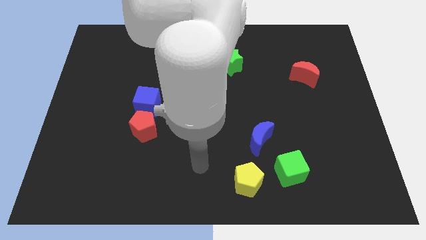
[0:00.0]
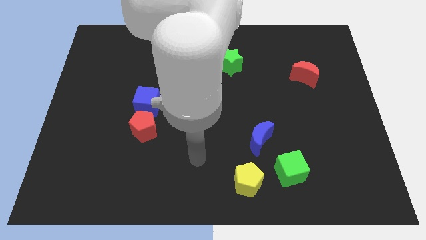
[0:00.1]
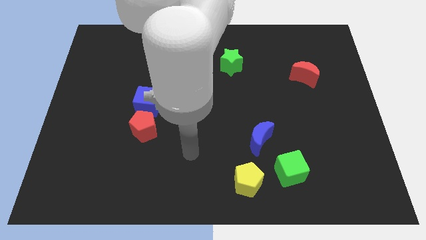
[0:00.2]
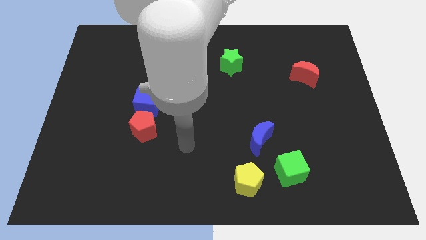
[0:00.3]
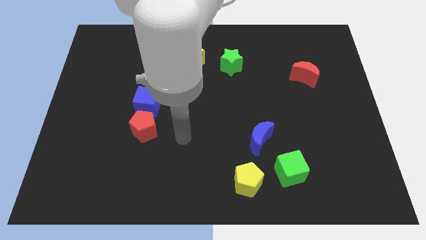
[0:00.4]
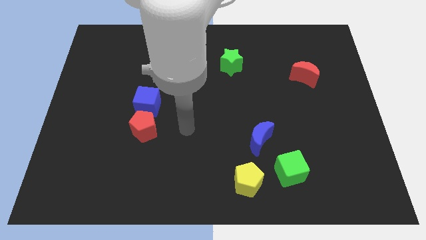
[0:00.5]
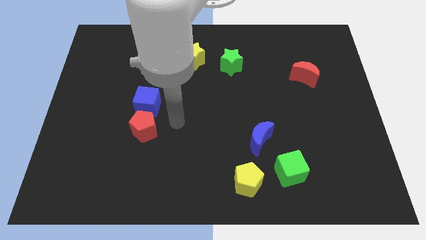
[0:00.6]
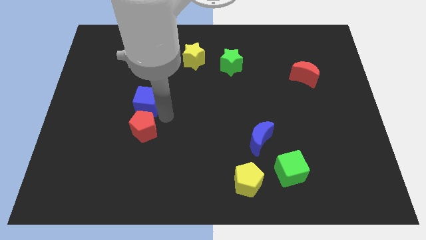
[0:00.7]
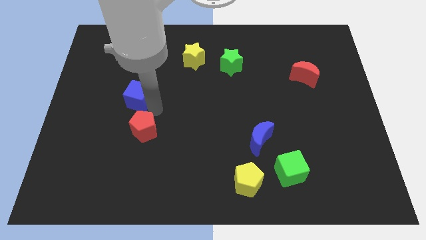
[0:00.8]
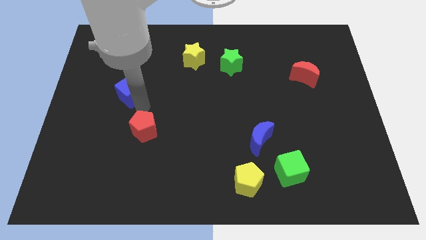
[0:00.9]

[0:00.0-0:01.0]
separate the red pentagon from the blue cube

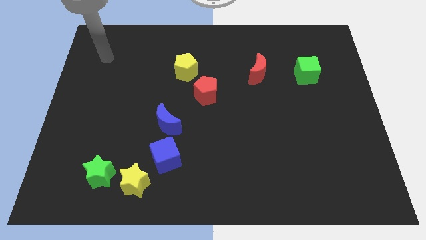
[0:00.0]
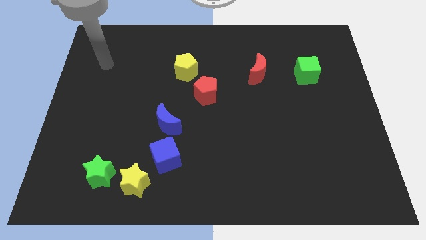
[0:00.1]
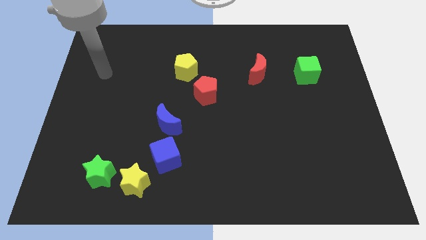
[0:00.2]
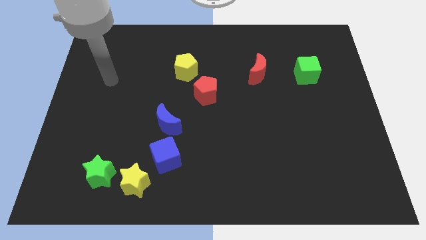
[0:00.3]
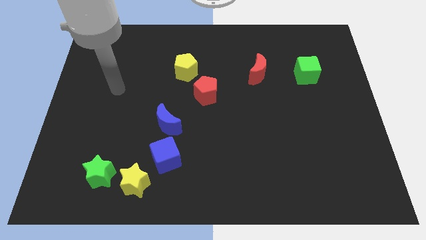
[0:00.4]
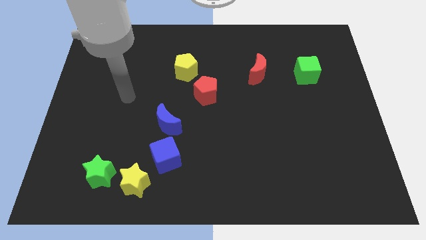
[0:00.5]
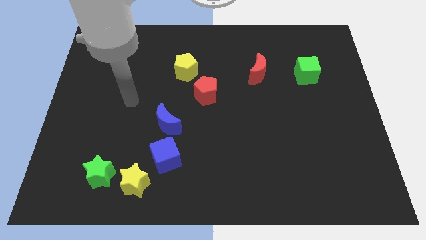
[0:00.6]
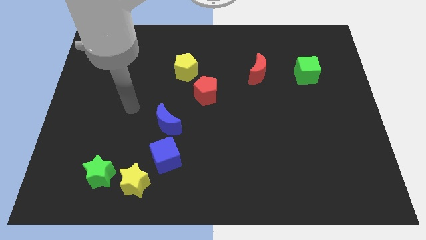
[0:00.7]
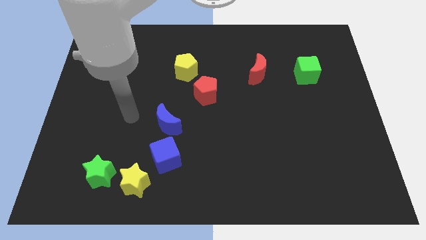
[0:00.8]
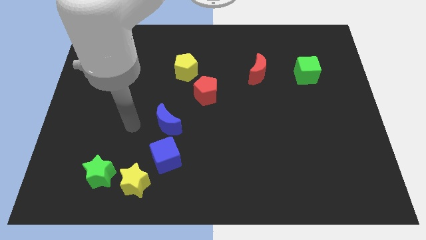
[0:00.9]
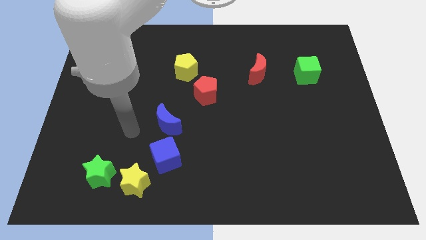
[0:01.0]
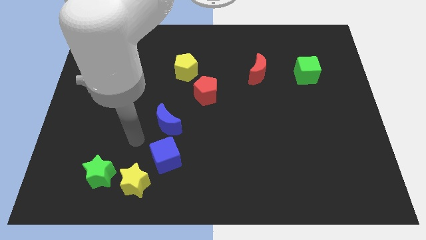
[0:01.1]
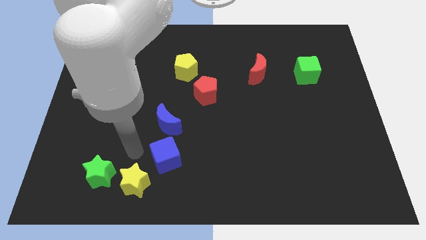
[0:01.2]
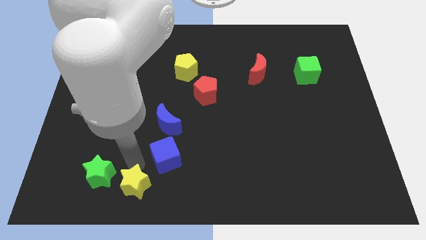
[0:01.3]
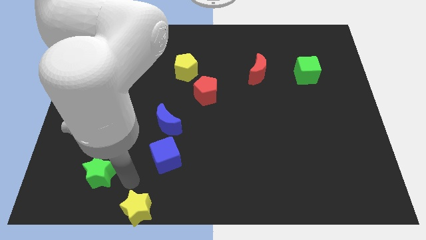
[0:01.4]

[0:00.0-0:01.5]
separate the green star from the yellow star

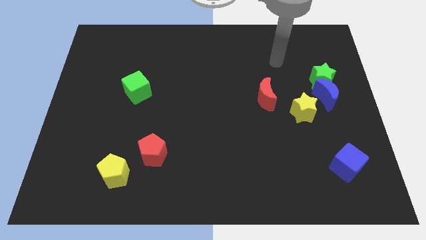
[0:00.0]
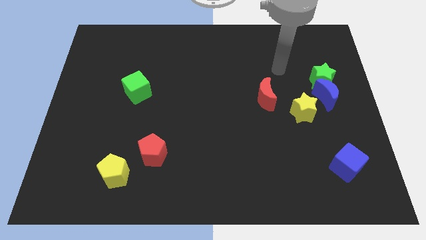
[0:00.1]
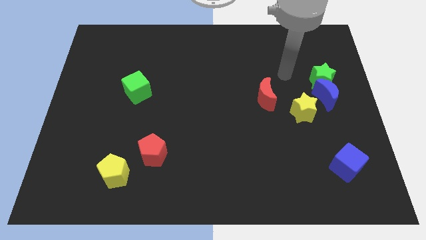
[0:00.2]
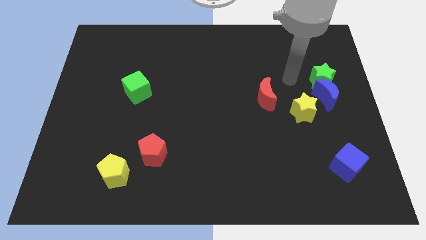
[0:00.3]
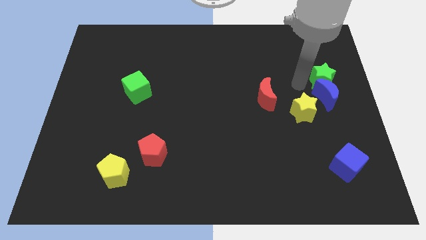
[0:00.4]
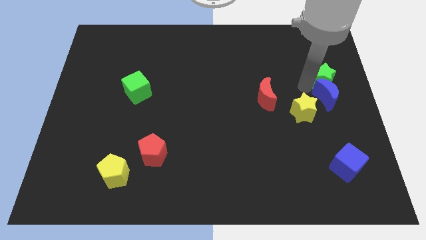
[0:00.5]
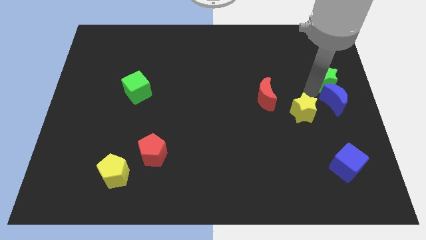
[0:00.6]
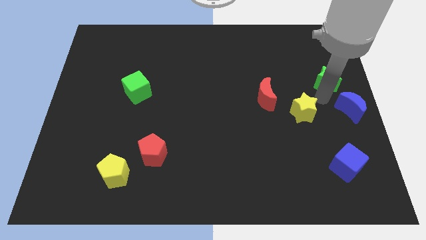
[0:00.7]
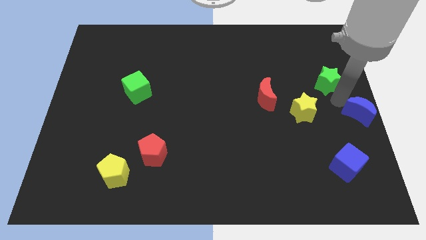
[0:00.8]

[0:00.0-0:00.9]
separate the green star from the blue moon

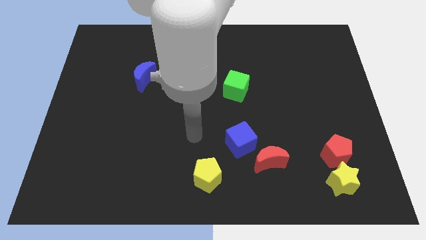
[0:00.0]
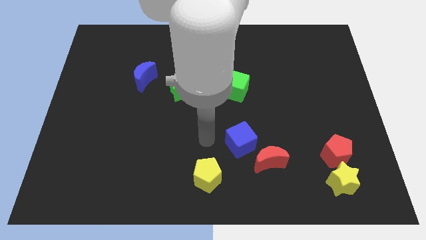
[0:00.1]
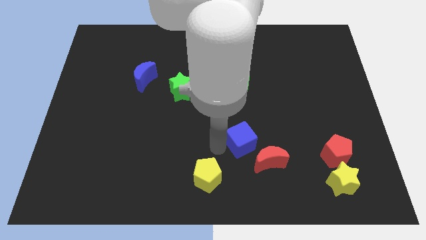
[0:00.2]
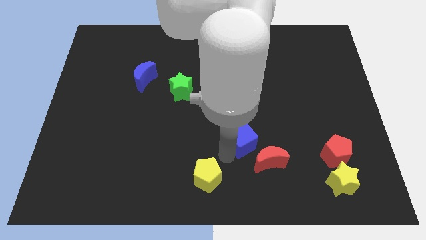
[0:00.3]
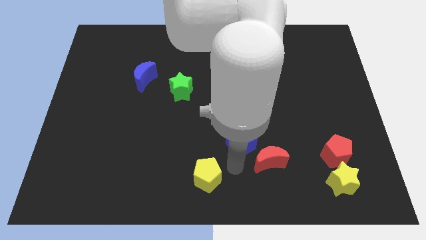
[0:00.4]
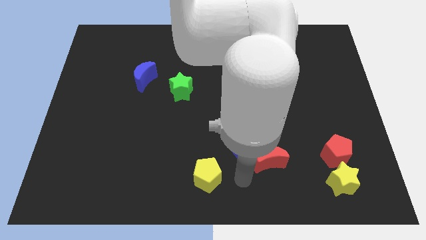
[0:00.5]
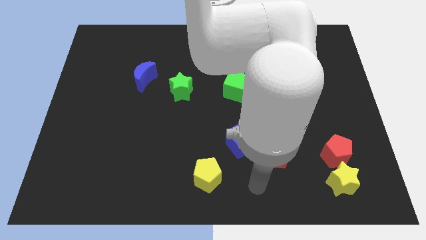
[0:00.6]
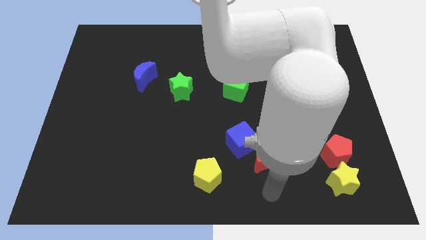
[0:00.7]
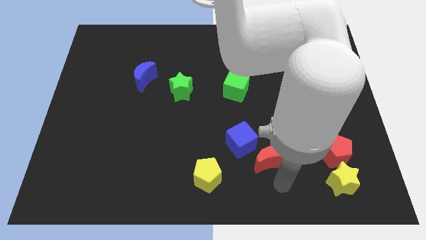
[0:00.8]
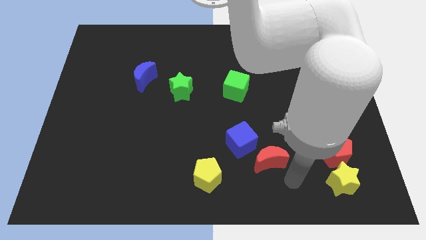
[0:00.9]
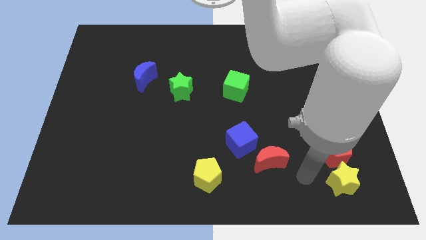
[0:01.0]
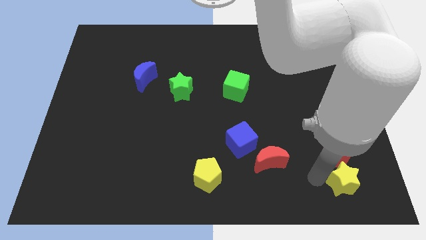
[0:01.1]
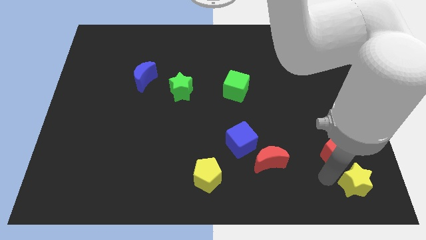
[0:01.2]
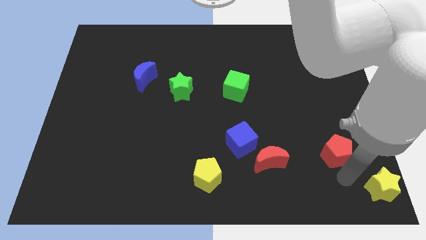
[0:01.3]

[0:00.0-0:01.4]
move the red pentagon away from the yellow star

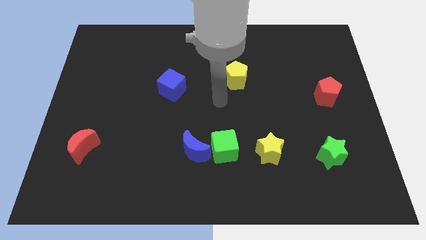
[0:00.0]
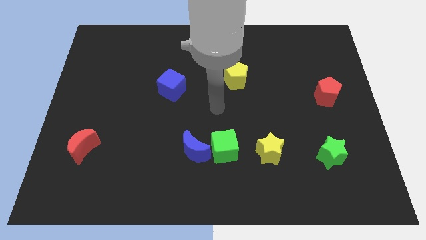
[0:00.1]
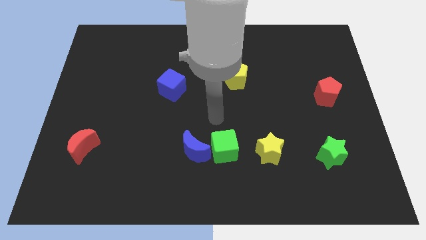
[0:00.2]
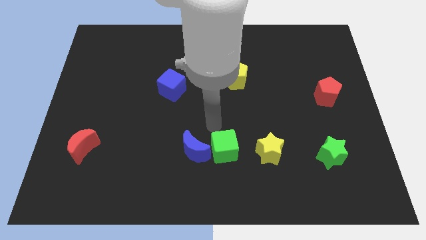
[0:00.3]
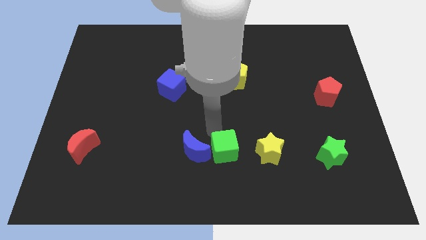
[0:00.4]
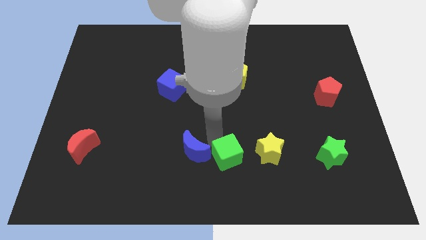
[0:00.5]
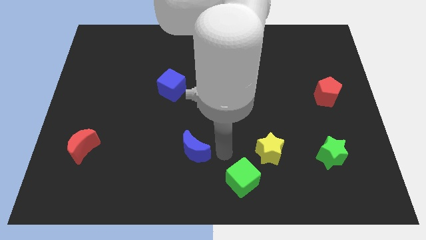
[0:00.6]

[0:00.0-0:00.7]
pull the blue moon apart from the green cube

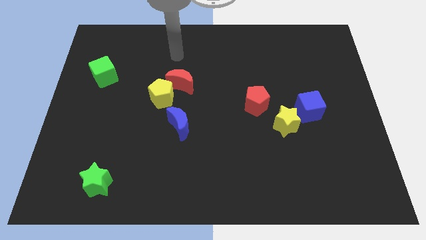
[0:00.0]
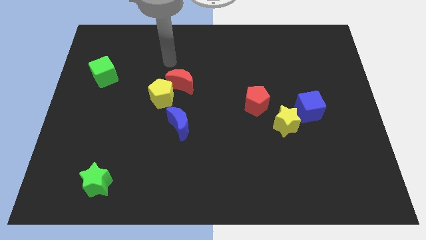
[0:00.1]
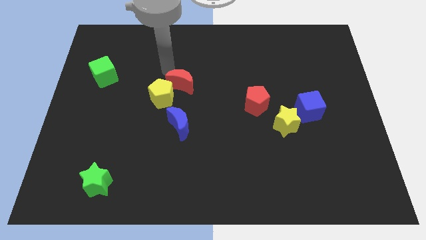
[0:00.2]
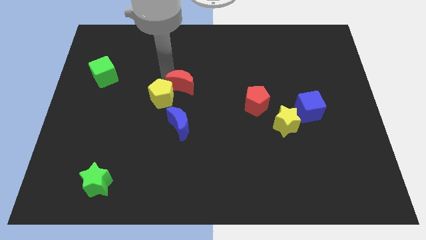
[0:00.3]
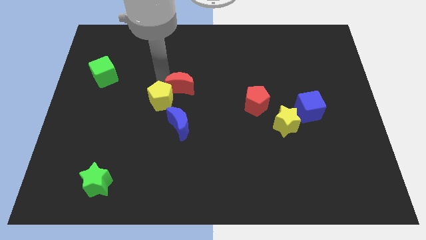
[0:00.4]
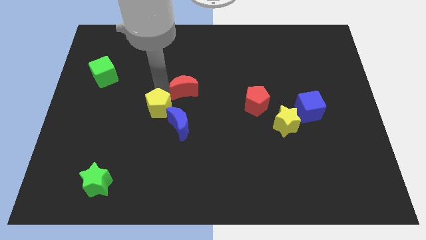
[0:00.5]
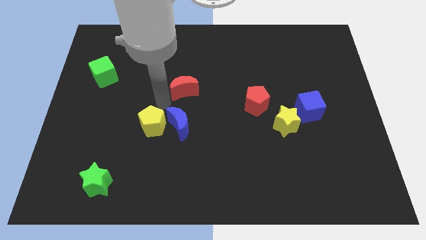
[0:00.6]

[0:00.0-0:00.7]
pull the red moon apart from the yellow pentagon

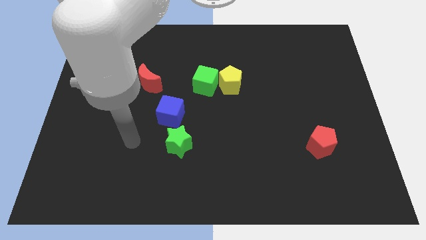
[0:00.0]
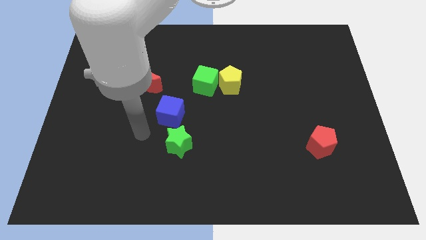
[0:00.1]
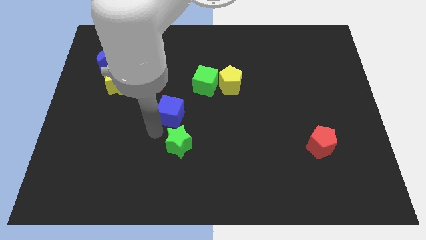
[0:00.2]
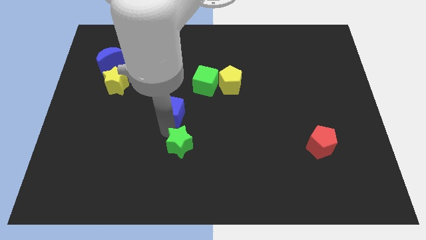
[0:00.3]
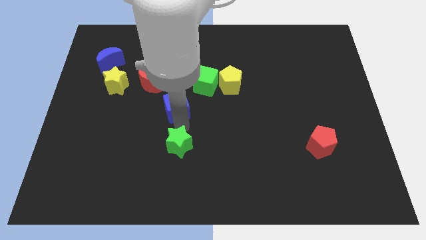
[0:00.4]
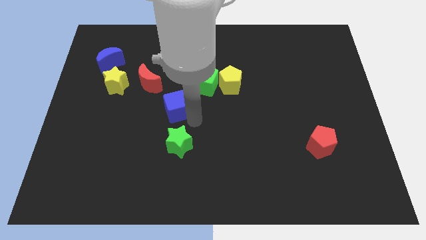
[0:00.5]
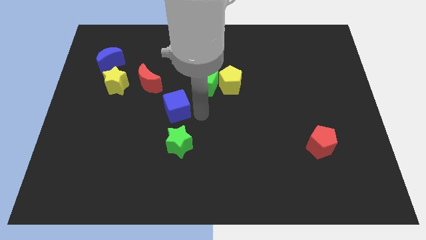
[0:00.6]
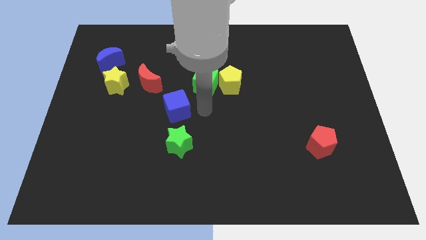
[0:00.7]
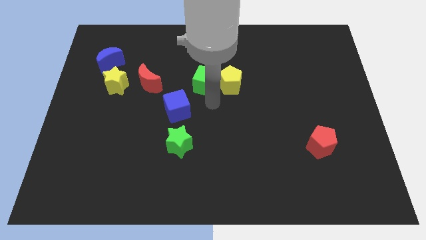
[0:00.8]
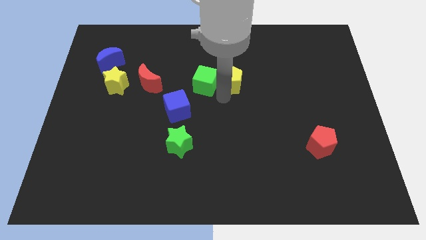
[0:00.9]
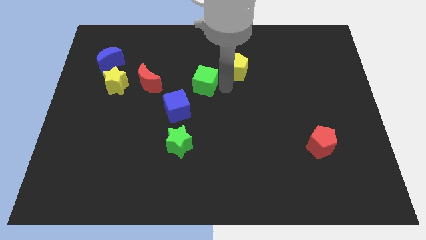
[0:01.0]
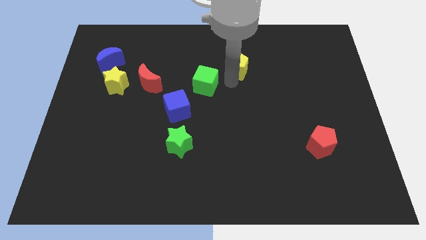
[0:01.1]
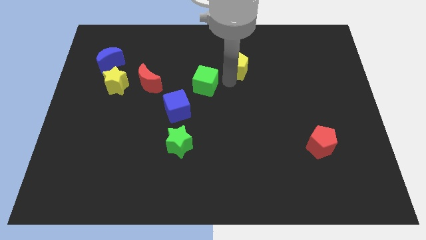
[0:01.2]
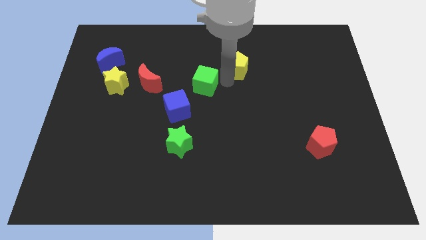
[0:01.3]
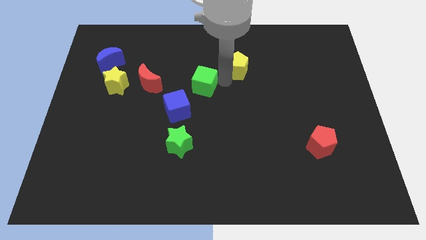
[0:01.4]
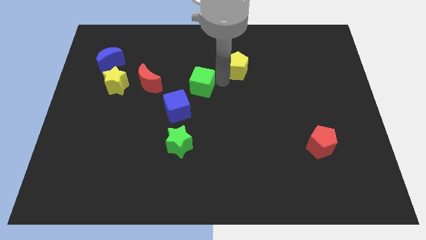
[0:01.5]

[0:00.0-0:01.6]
pull the green cube apart from the yellow pentagon

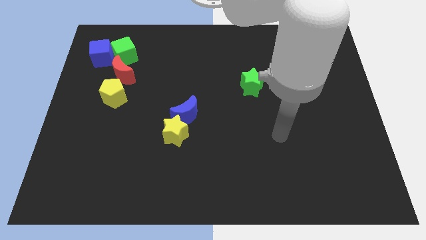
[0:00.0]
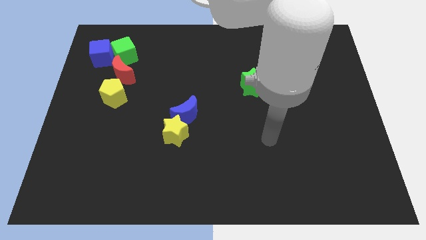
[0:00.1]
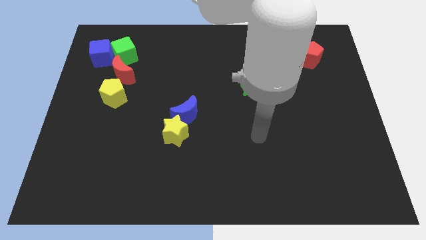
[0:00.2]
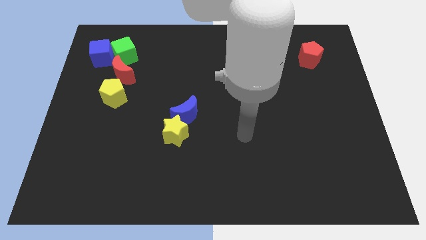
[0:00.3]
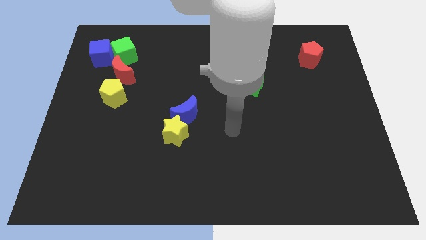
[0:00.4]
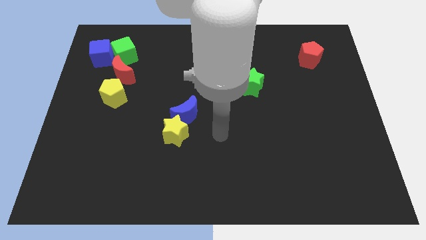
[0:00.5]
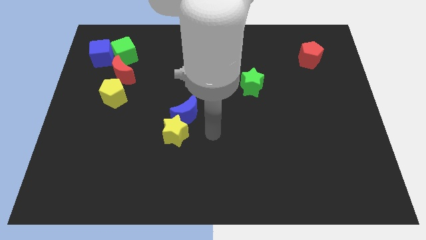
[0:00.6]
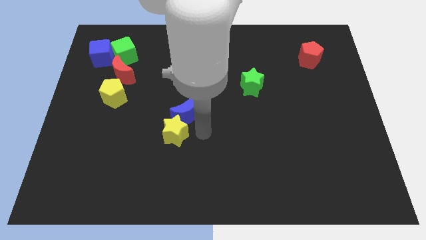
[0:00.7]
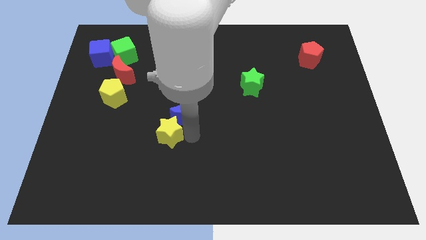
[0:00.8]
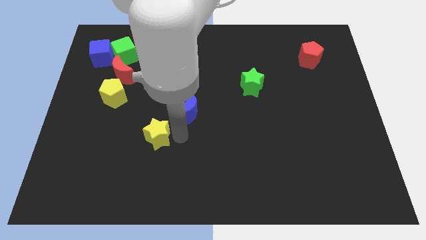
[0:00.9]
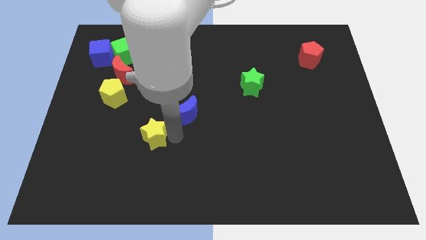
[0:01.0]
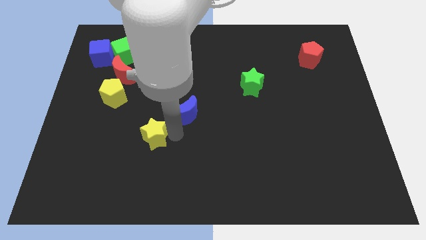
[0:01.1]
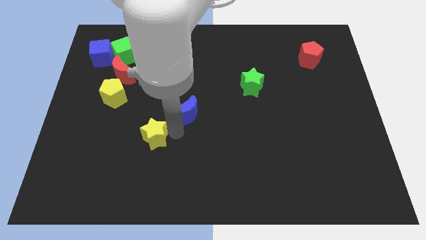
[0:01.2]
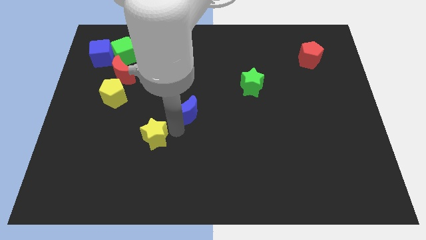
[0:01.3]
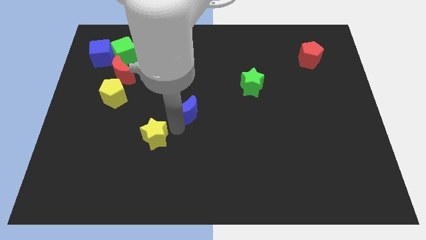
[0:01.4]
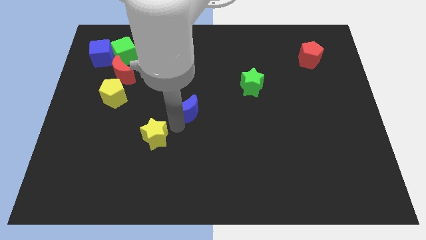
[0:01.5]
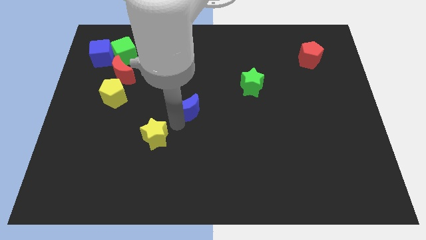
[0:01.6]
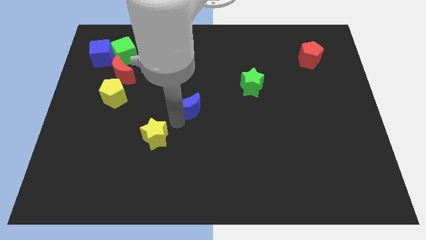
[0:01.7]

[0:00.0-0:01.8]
separate the blue moon from the yellow star
